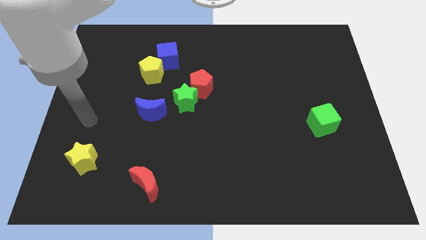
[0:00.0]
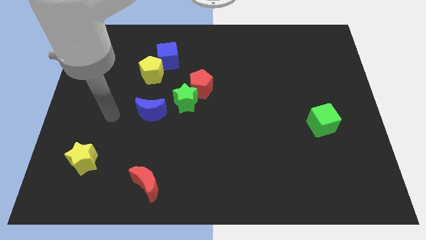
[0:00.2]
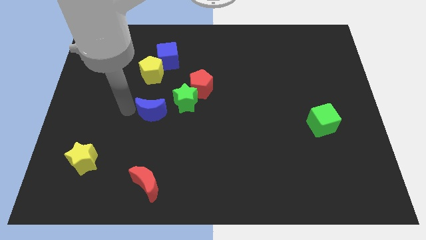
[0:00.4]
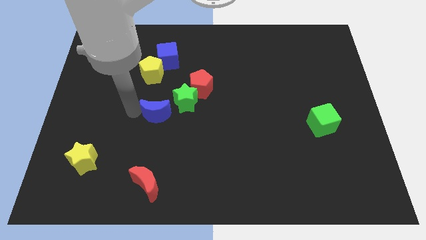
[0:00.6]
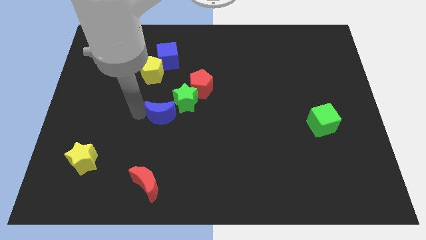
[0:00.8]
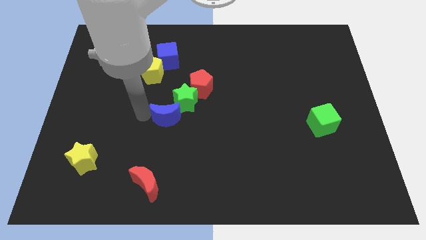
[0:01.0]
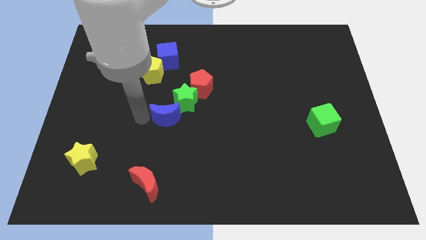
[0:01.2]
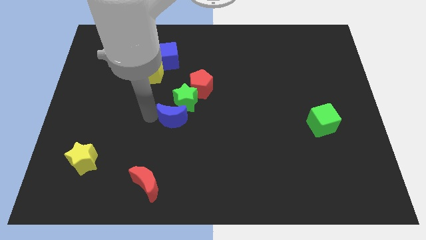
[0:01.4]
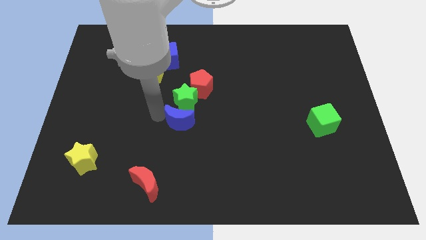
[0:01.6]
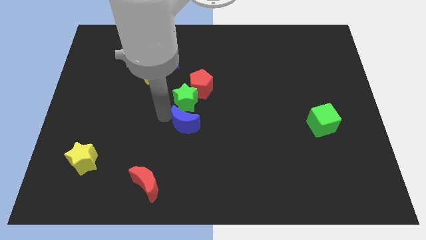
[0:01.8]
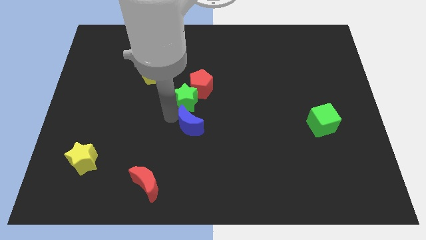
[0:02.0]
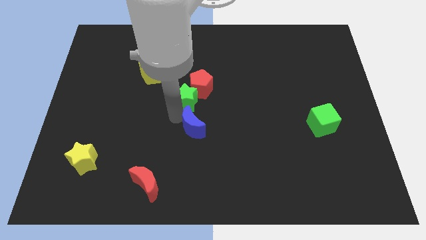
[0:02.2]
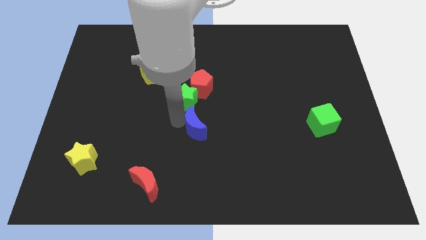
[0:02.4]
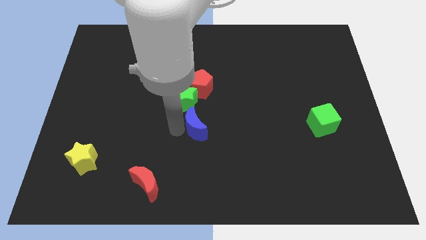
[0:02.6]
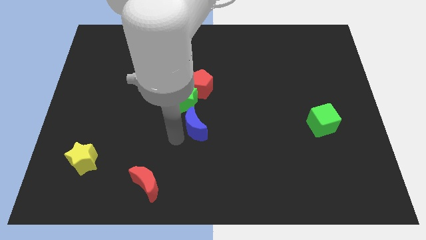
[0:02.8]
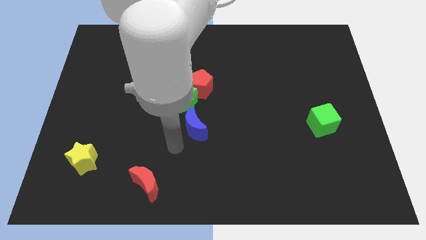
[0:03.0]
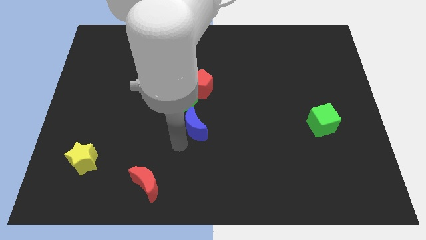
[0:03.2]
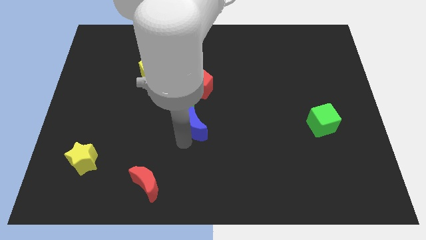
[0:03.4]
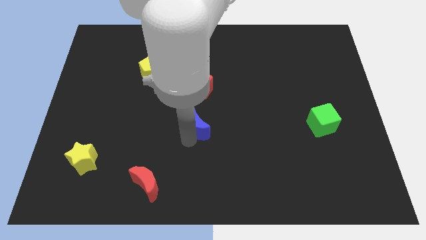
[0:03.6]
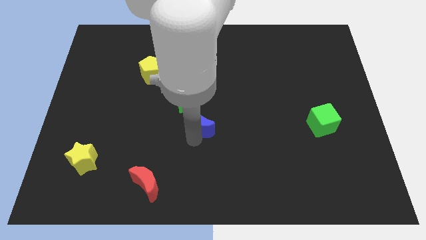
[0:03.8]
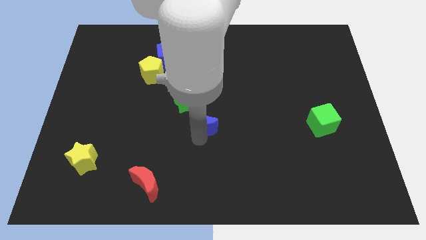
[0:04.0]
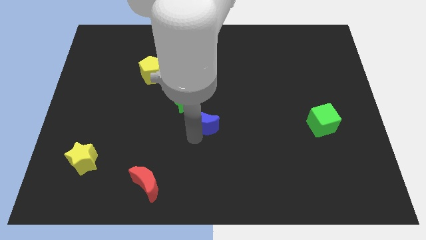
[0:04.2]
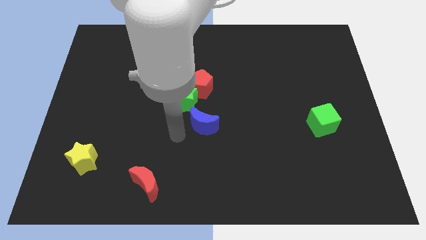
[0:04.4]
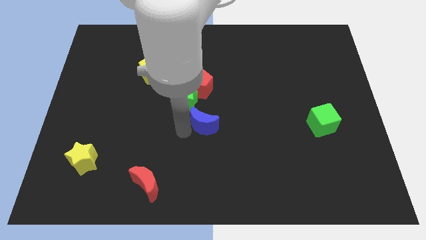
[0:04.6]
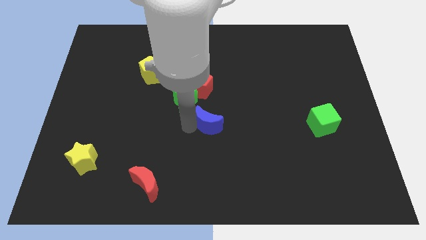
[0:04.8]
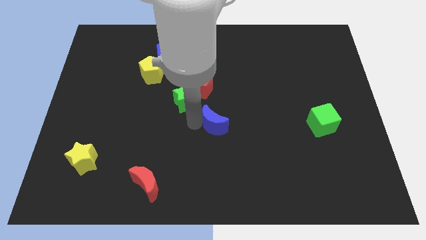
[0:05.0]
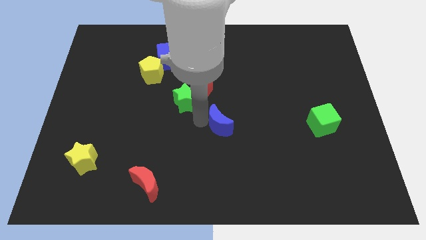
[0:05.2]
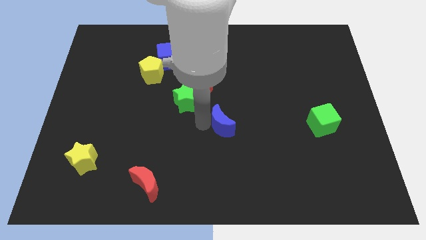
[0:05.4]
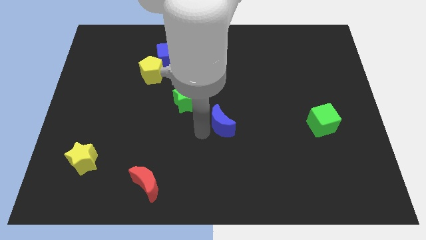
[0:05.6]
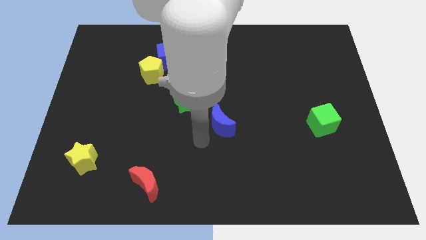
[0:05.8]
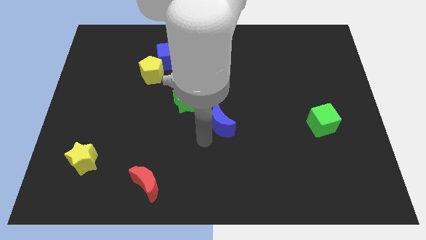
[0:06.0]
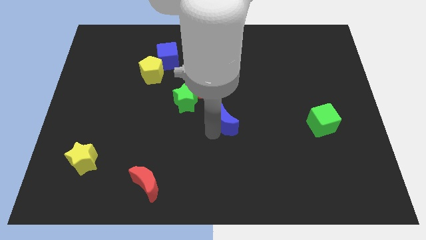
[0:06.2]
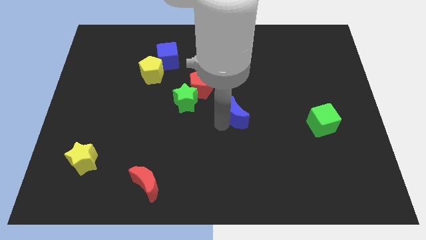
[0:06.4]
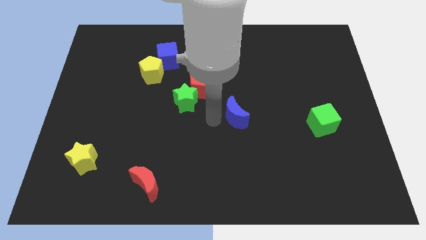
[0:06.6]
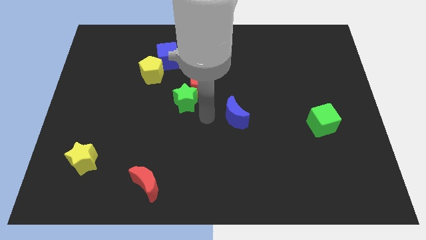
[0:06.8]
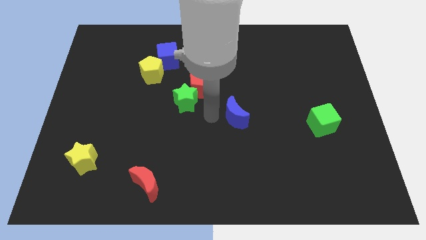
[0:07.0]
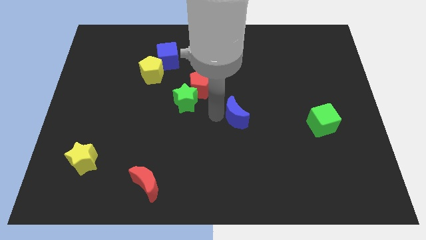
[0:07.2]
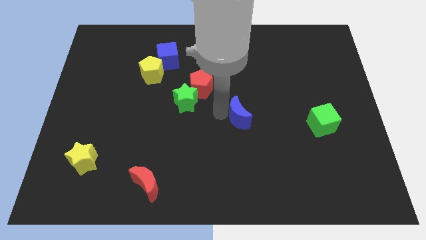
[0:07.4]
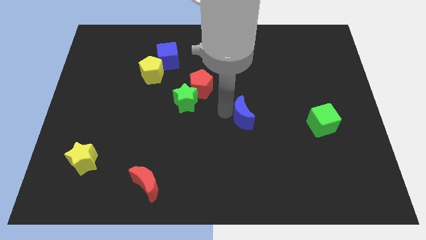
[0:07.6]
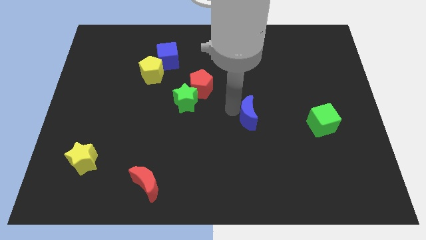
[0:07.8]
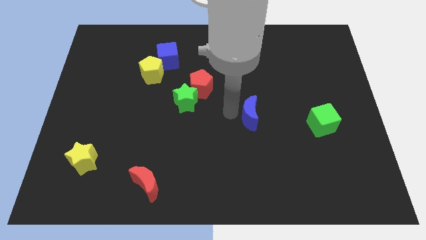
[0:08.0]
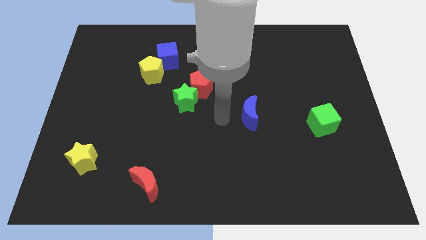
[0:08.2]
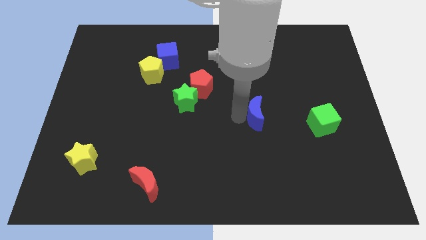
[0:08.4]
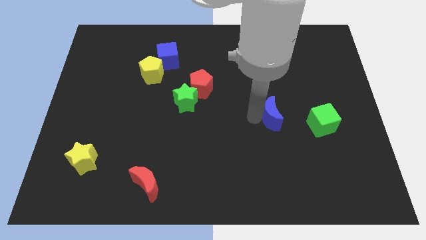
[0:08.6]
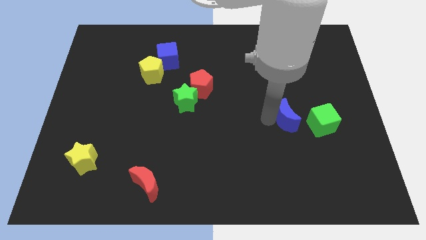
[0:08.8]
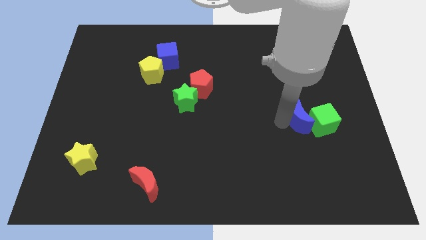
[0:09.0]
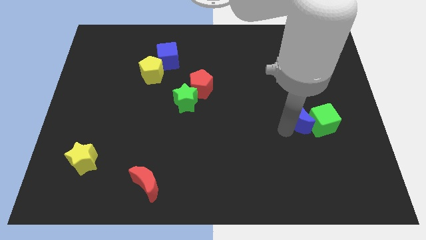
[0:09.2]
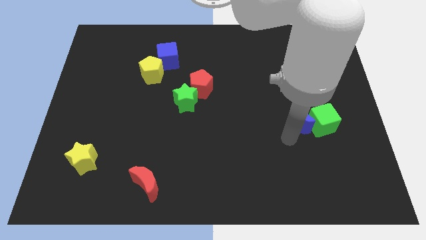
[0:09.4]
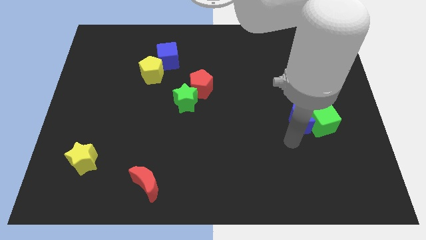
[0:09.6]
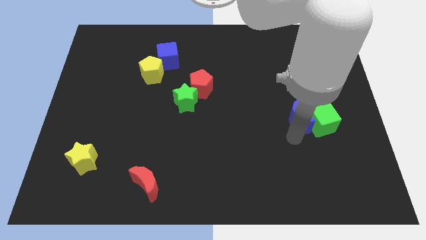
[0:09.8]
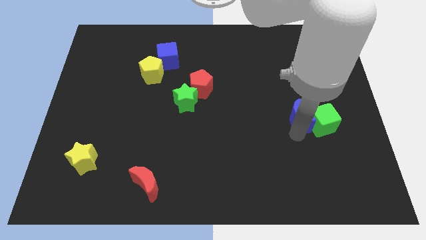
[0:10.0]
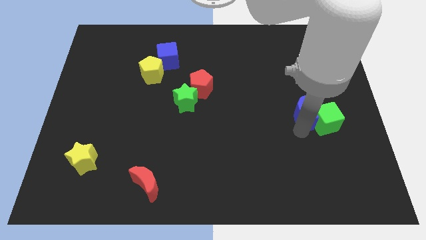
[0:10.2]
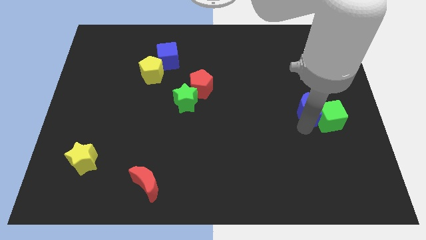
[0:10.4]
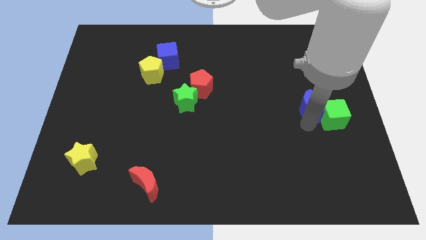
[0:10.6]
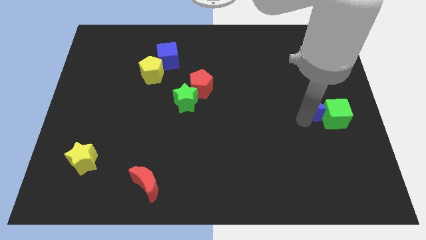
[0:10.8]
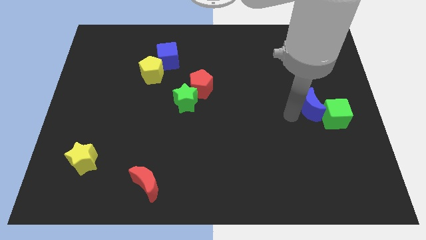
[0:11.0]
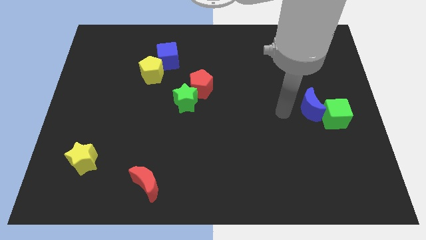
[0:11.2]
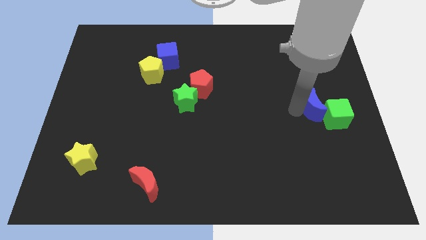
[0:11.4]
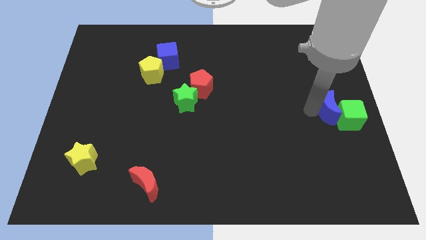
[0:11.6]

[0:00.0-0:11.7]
put the blue moon to the right side
